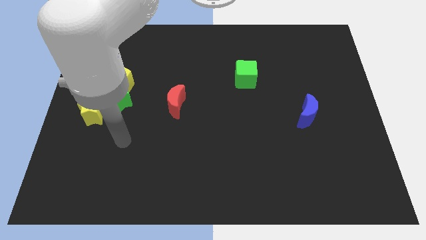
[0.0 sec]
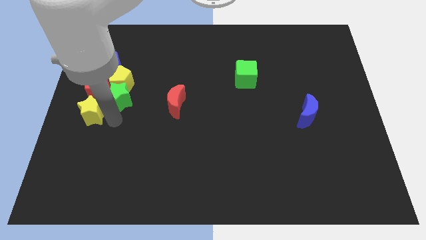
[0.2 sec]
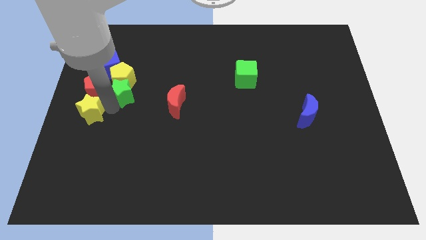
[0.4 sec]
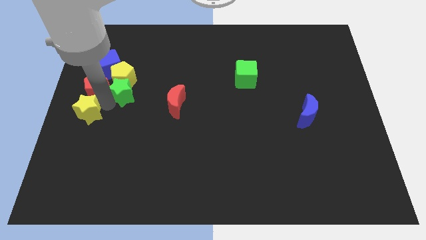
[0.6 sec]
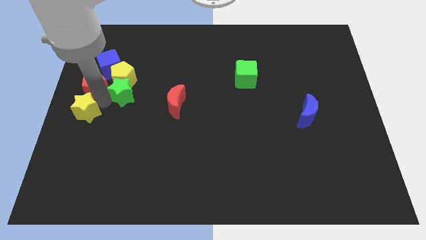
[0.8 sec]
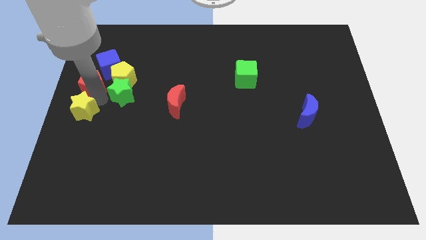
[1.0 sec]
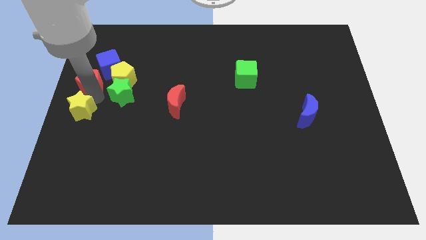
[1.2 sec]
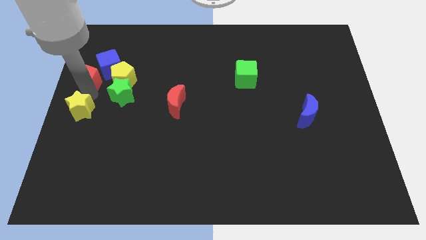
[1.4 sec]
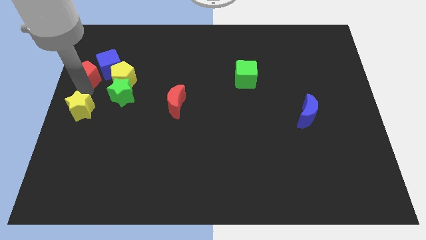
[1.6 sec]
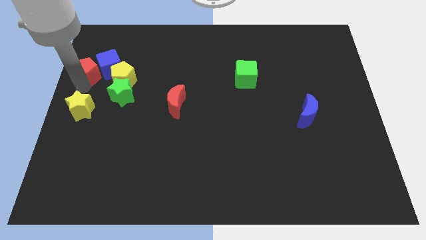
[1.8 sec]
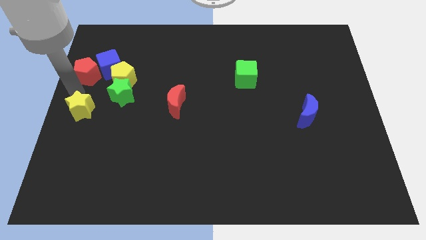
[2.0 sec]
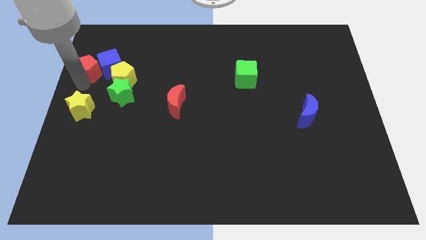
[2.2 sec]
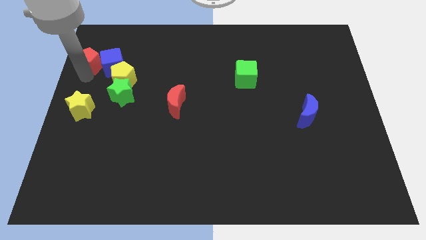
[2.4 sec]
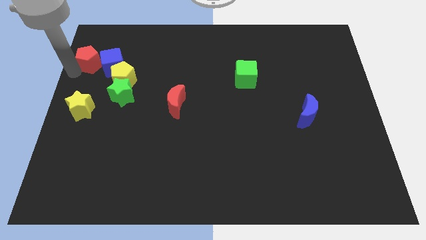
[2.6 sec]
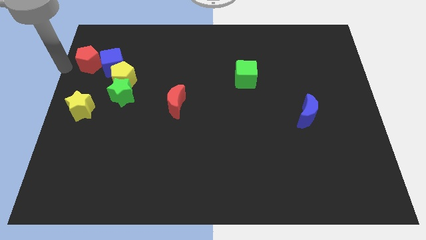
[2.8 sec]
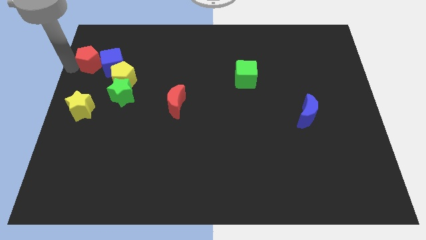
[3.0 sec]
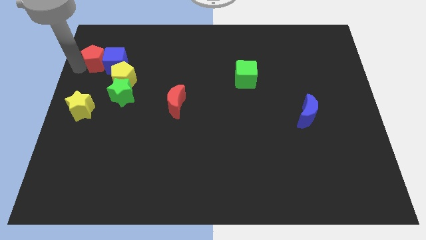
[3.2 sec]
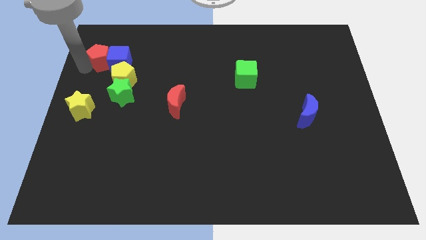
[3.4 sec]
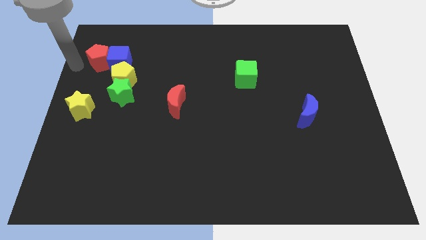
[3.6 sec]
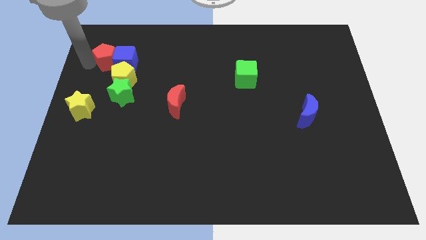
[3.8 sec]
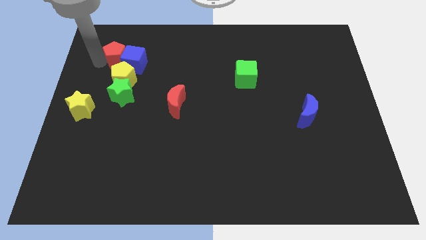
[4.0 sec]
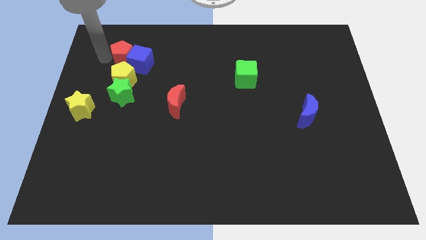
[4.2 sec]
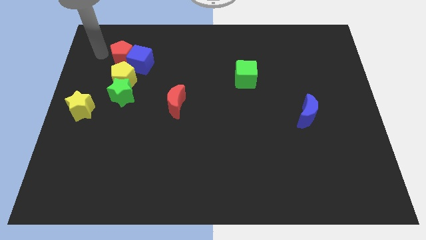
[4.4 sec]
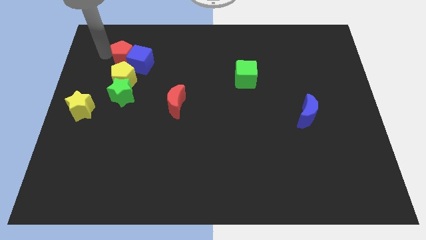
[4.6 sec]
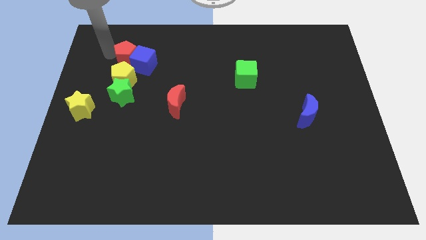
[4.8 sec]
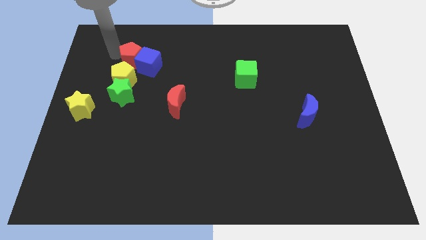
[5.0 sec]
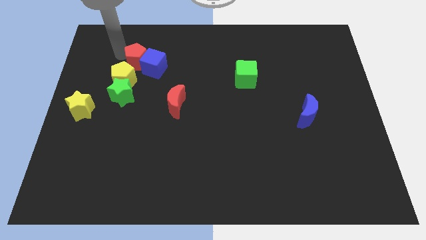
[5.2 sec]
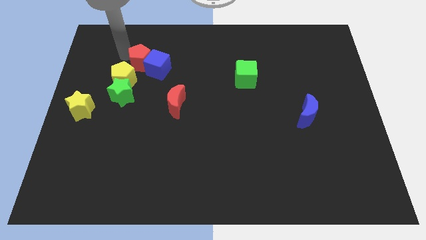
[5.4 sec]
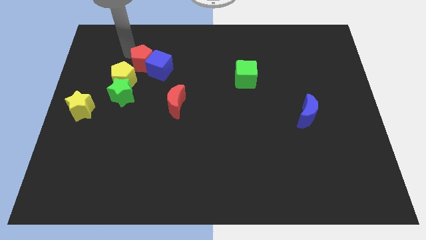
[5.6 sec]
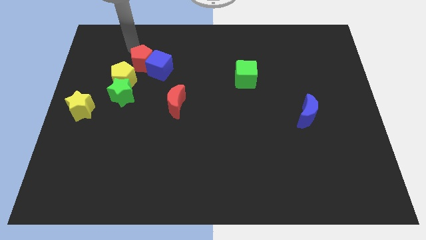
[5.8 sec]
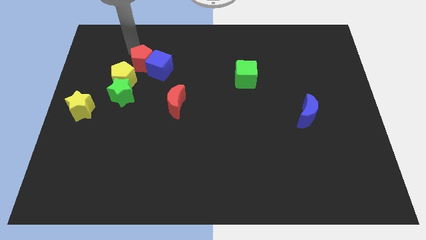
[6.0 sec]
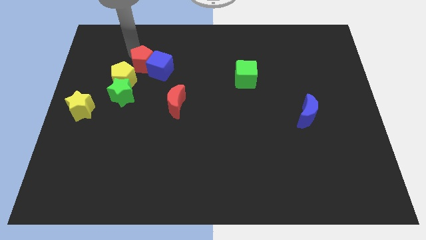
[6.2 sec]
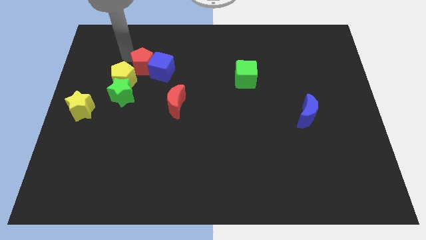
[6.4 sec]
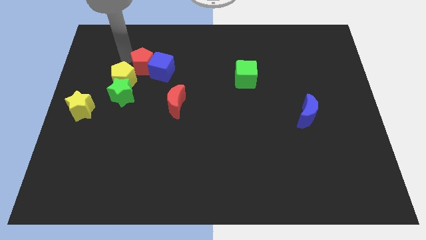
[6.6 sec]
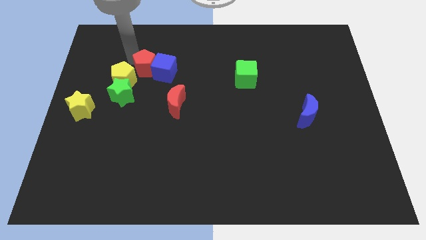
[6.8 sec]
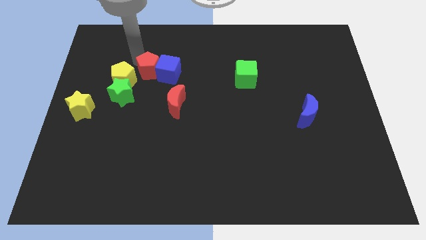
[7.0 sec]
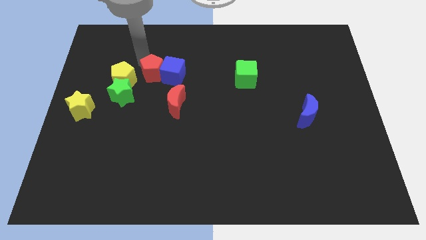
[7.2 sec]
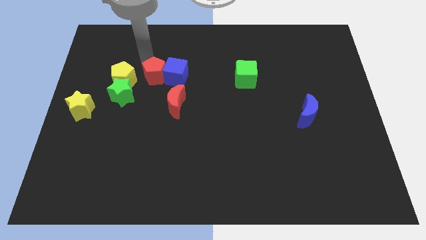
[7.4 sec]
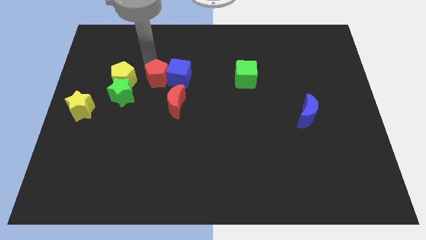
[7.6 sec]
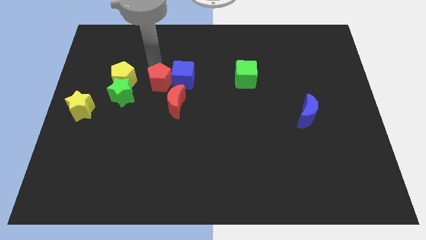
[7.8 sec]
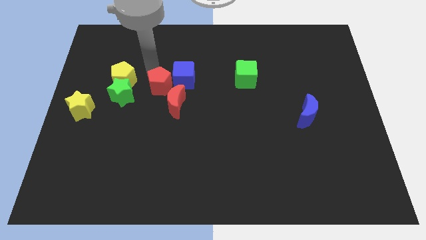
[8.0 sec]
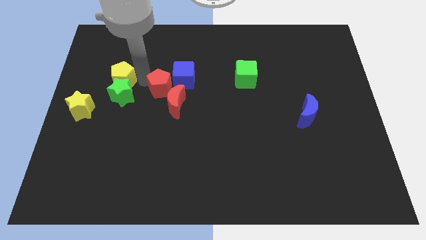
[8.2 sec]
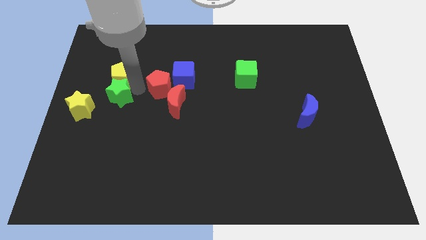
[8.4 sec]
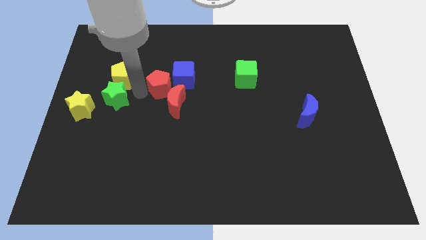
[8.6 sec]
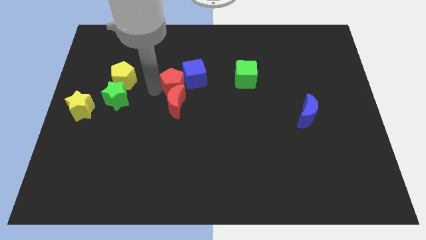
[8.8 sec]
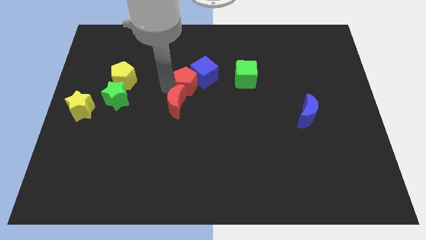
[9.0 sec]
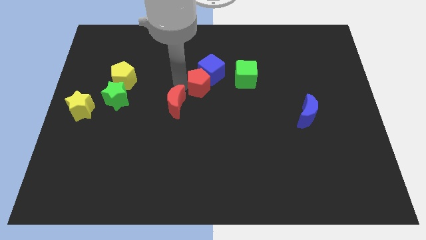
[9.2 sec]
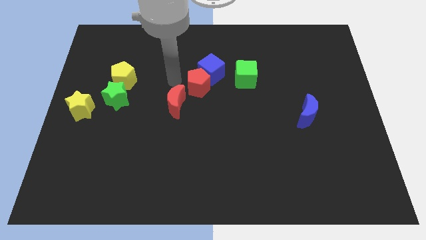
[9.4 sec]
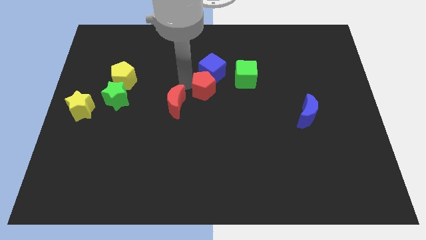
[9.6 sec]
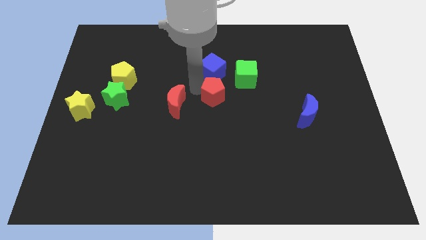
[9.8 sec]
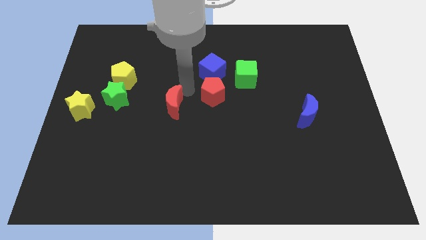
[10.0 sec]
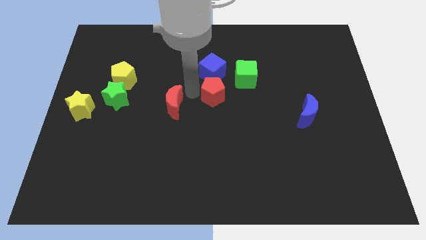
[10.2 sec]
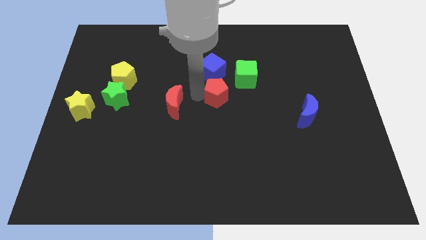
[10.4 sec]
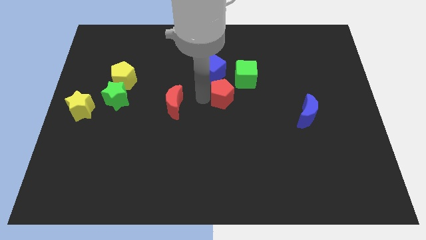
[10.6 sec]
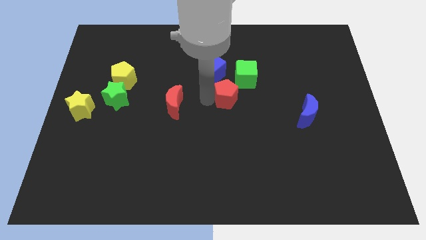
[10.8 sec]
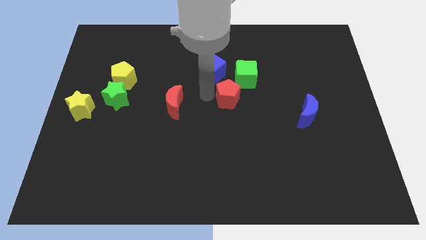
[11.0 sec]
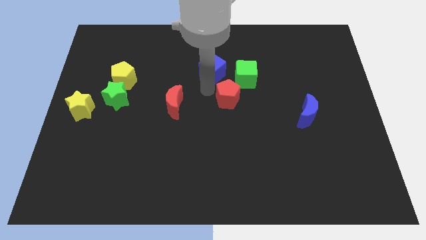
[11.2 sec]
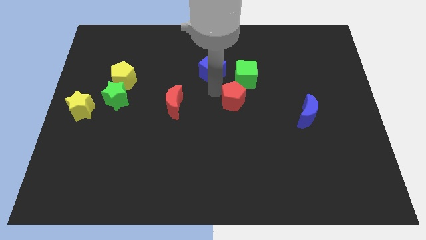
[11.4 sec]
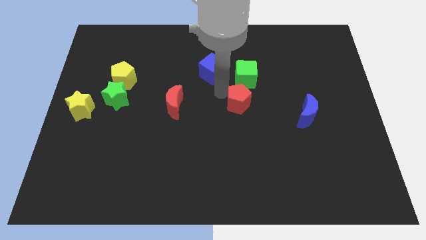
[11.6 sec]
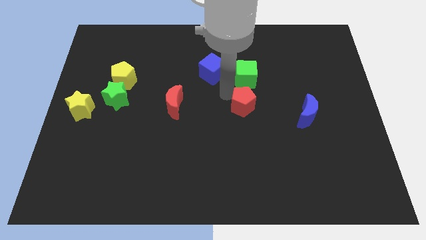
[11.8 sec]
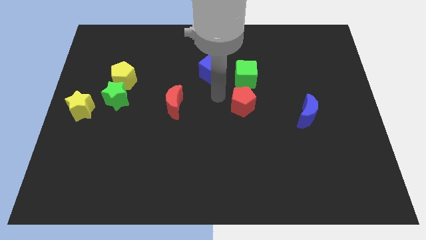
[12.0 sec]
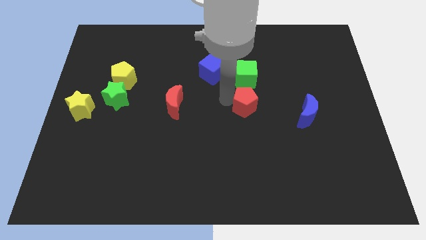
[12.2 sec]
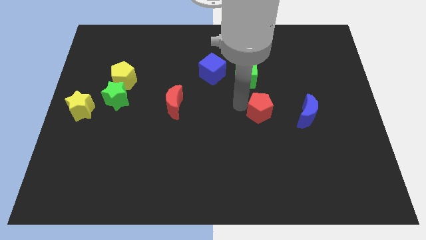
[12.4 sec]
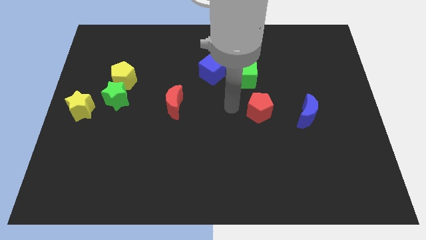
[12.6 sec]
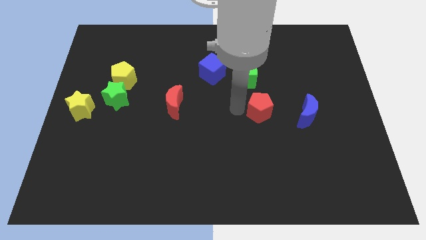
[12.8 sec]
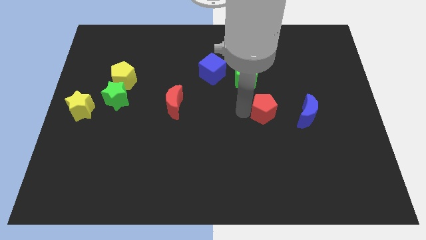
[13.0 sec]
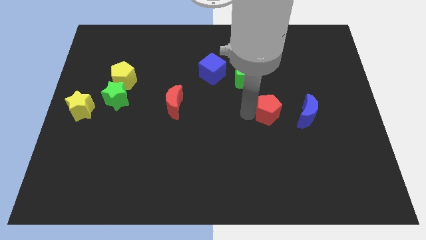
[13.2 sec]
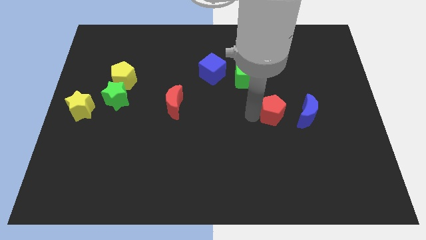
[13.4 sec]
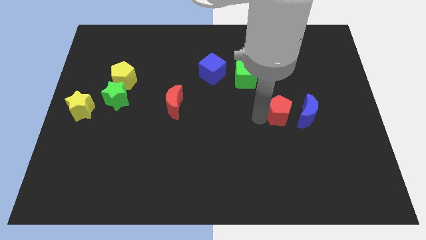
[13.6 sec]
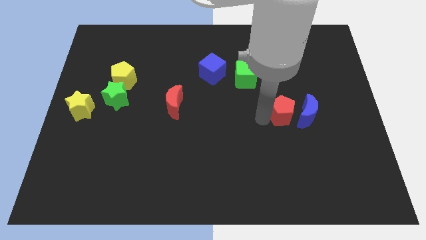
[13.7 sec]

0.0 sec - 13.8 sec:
slide the red pentagon close to the blue moon

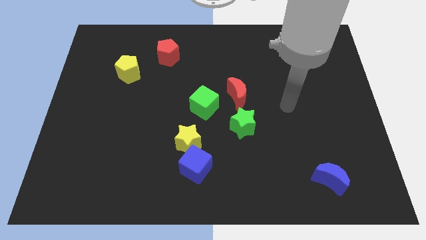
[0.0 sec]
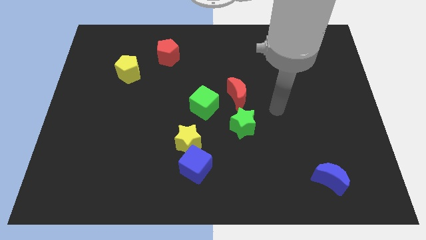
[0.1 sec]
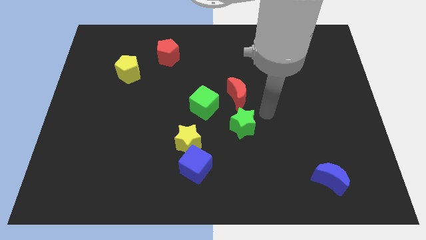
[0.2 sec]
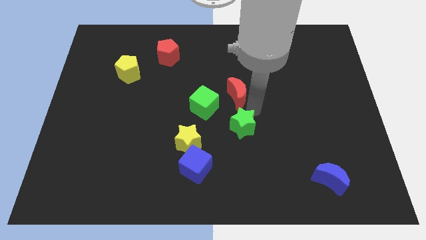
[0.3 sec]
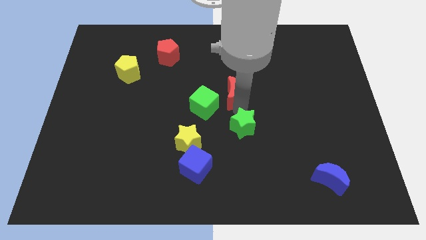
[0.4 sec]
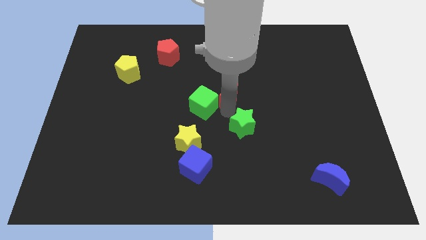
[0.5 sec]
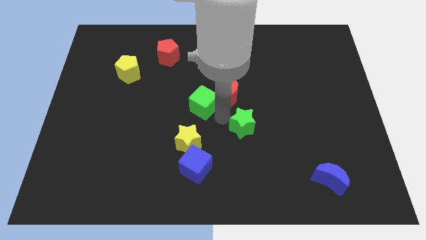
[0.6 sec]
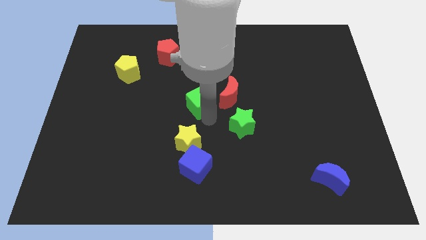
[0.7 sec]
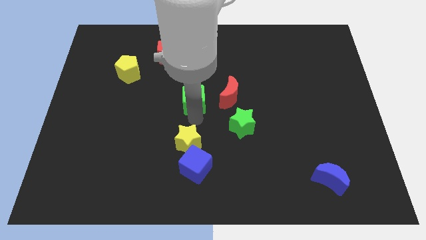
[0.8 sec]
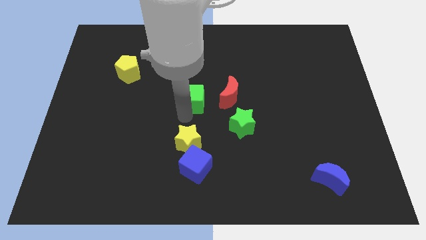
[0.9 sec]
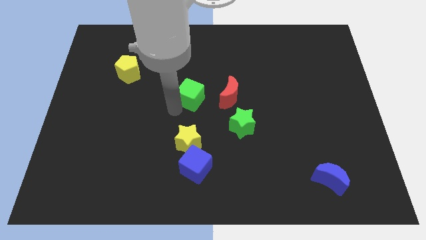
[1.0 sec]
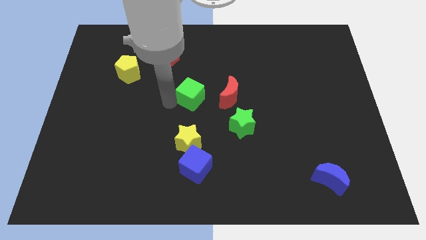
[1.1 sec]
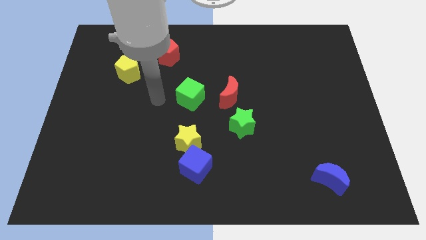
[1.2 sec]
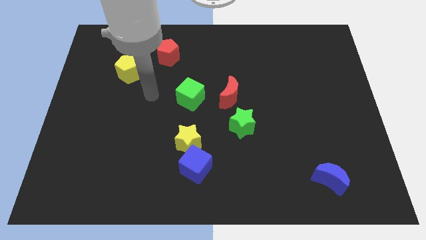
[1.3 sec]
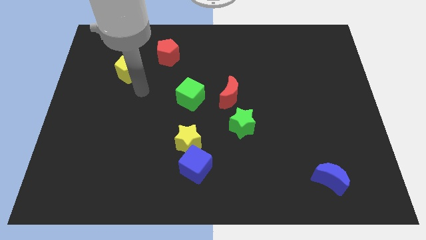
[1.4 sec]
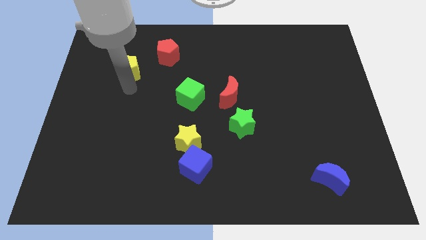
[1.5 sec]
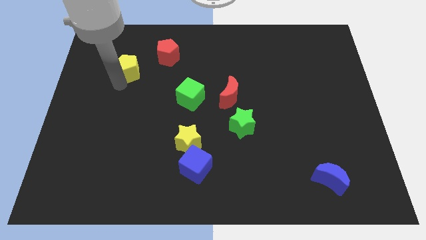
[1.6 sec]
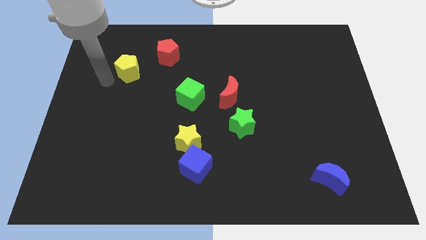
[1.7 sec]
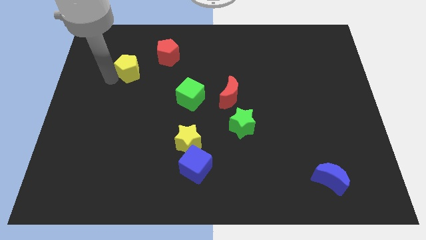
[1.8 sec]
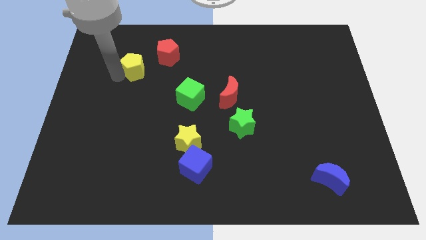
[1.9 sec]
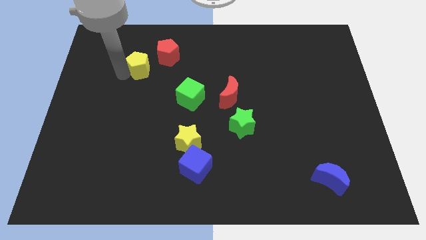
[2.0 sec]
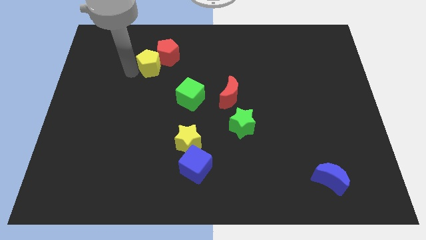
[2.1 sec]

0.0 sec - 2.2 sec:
slide the yellow pentagon towards the red pentagon
